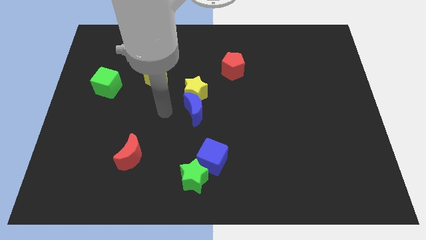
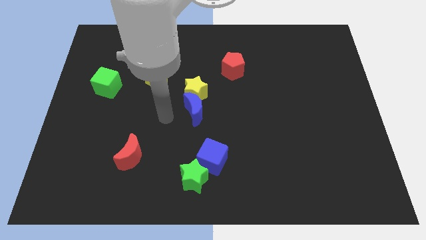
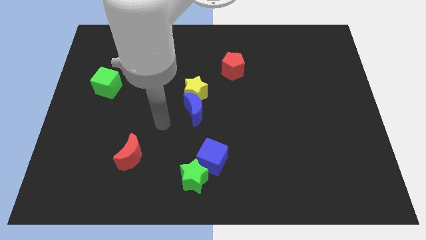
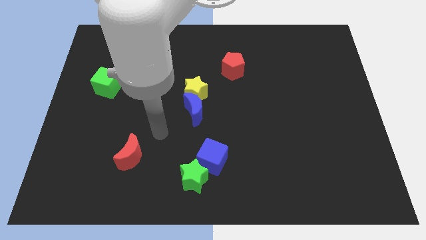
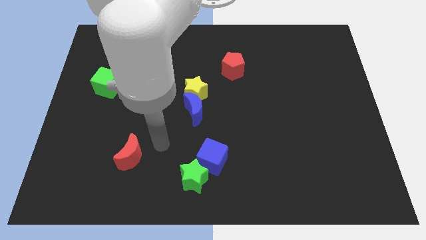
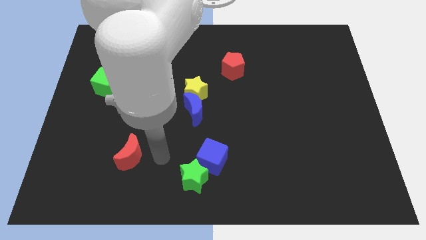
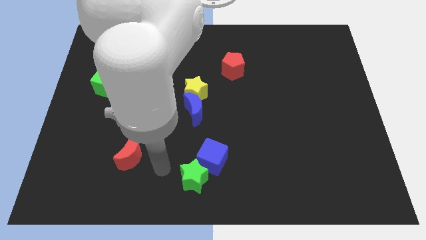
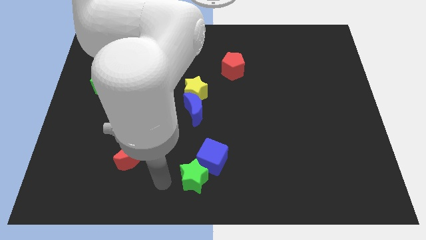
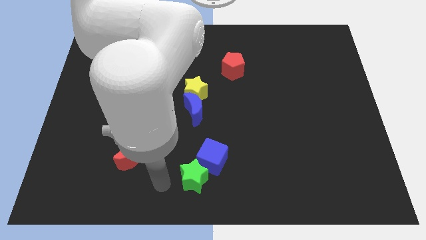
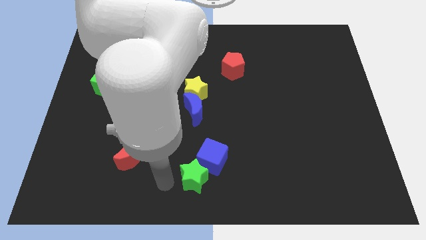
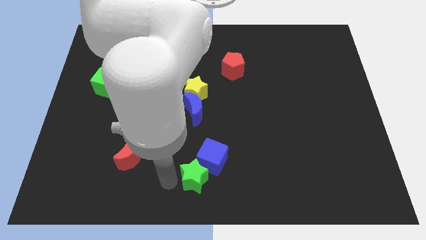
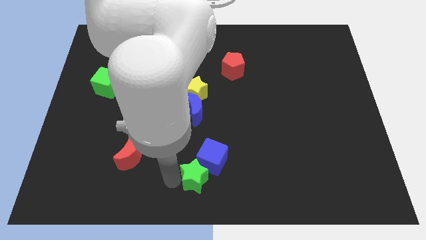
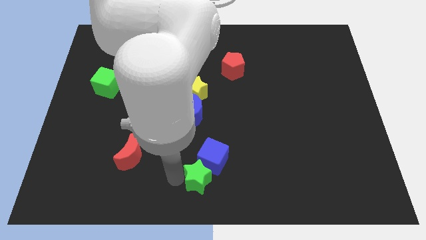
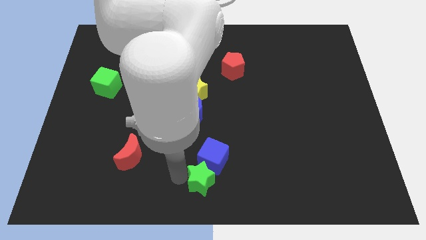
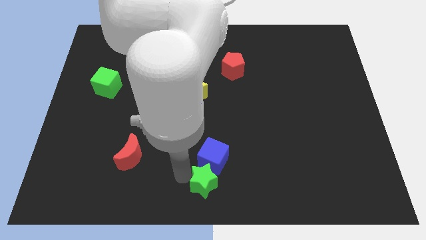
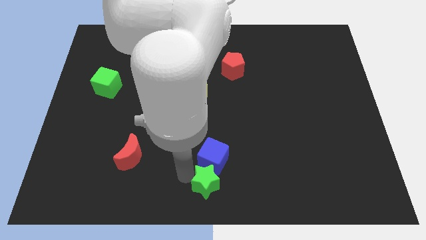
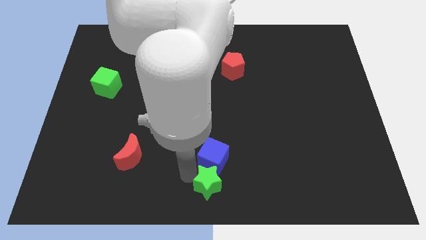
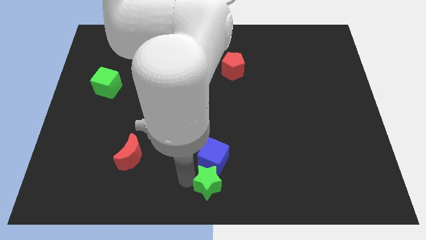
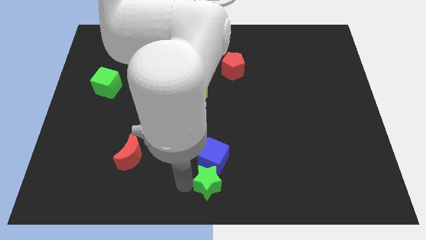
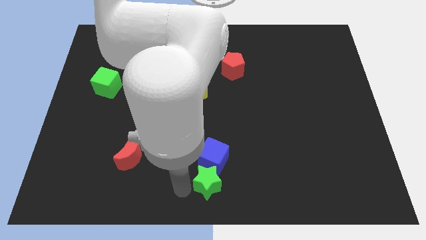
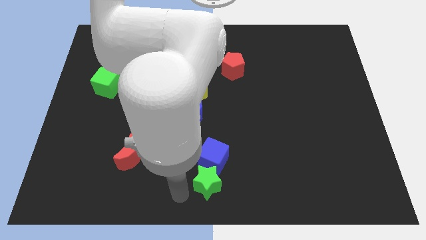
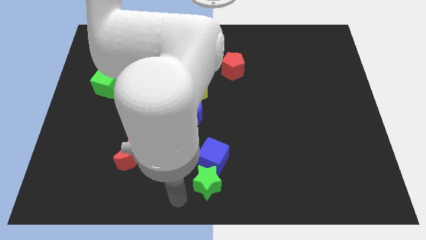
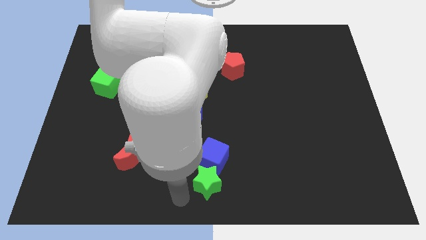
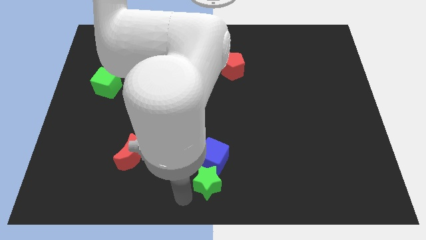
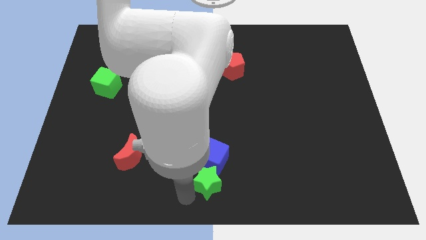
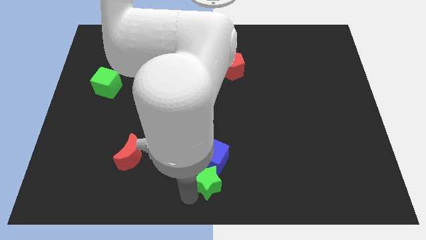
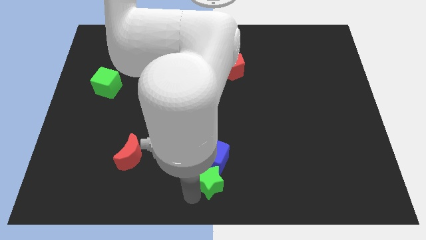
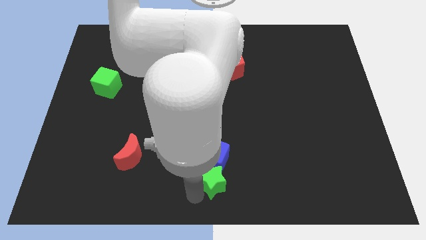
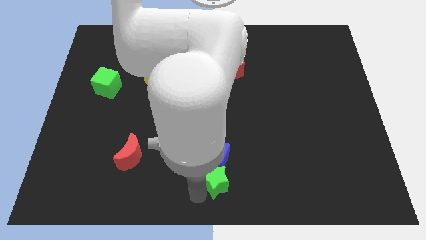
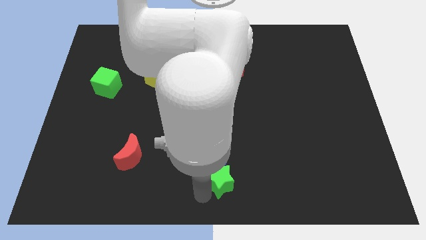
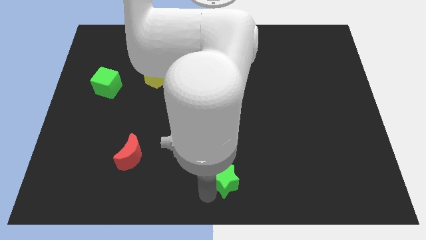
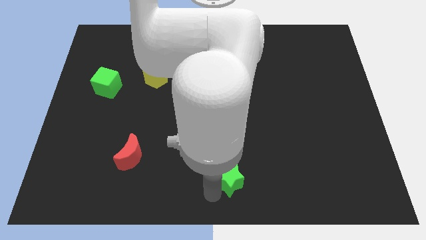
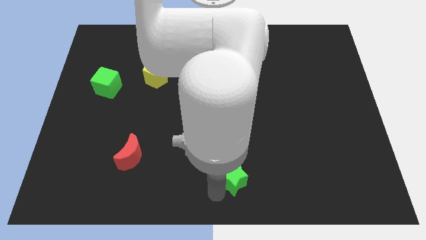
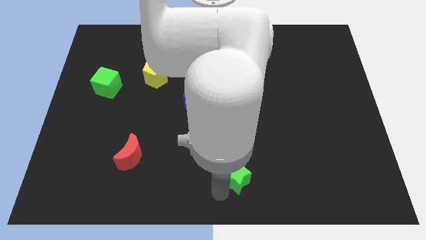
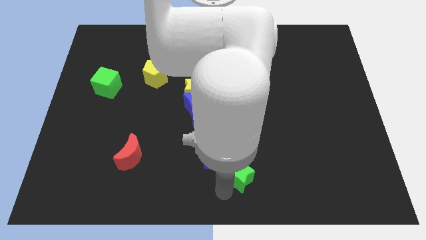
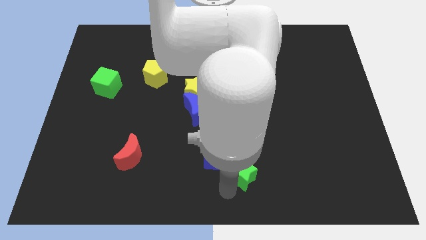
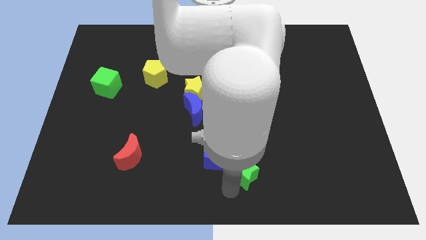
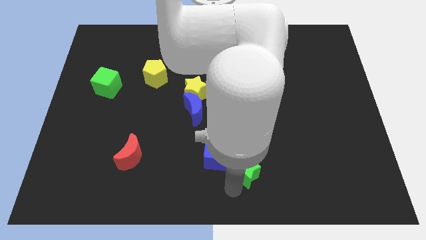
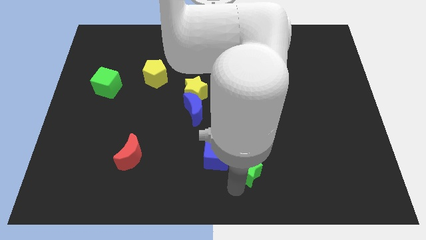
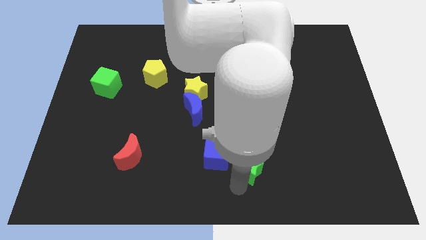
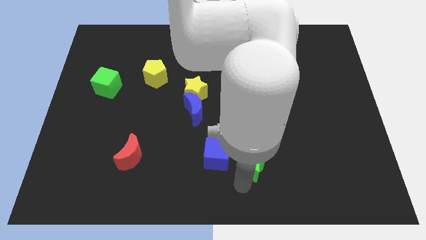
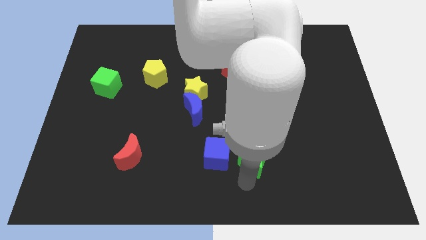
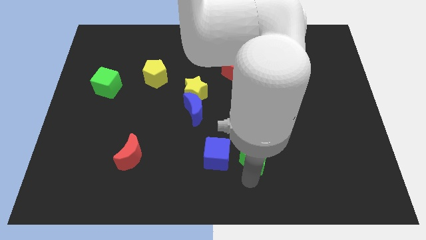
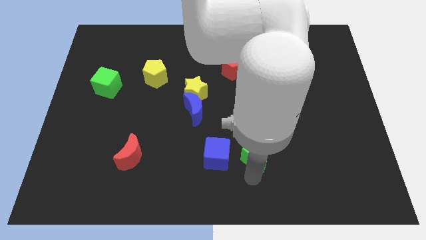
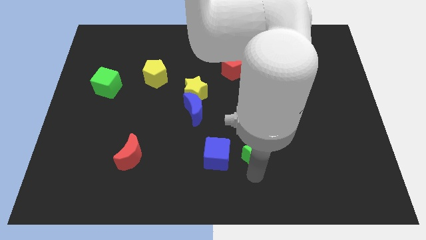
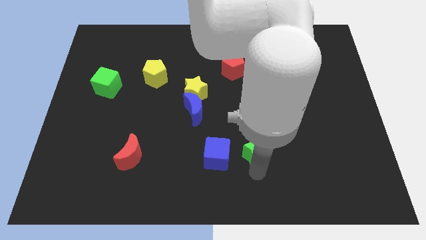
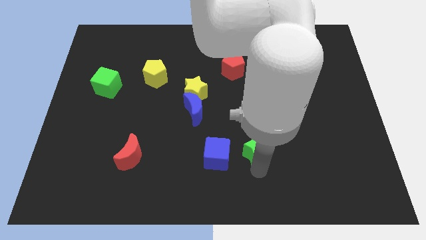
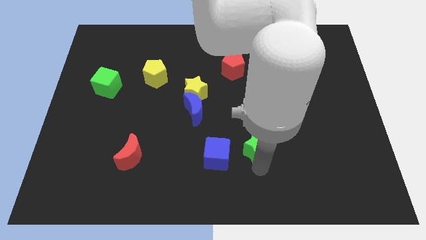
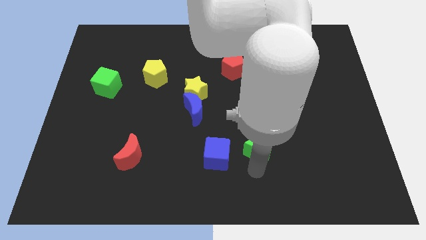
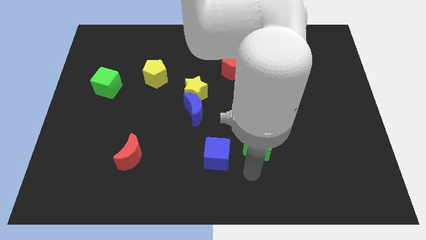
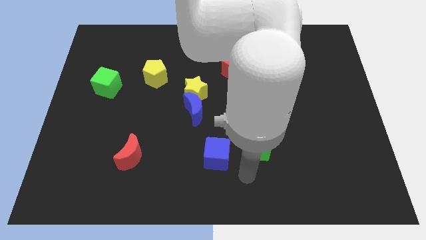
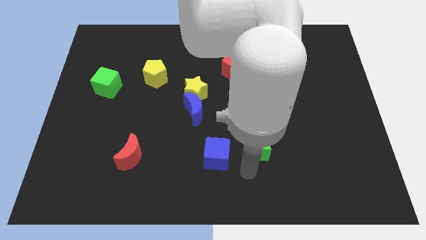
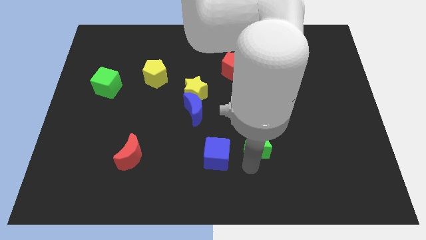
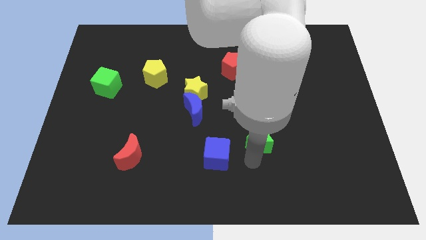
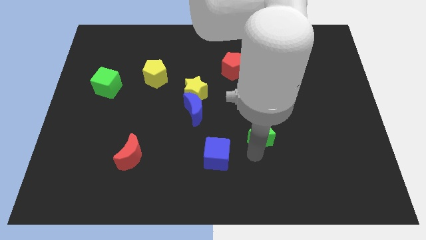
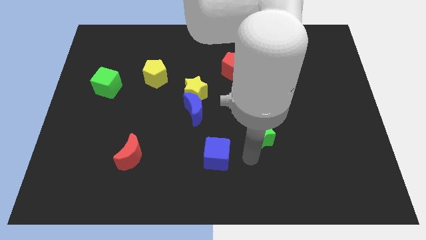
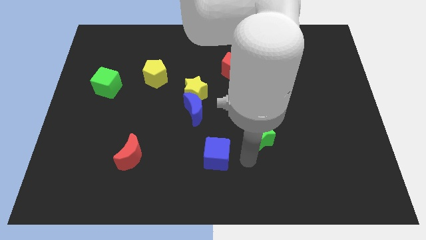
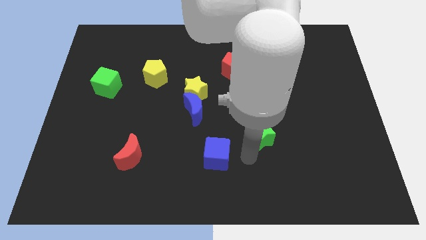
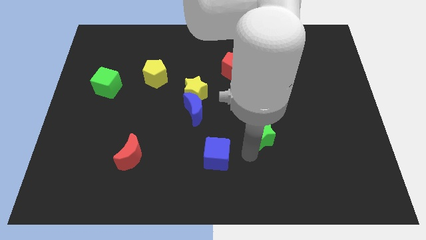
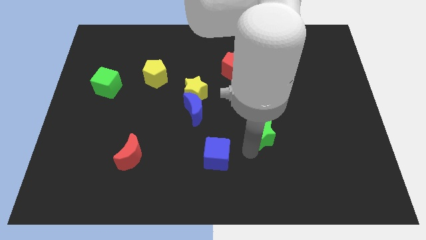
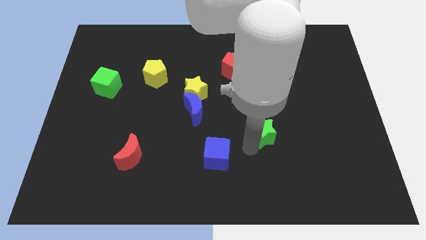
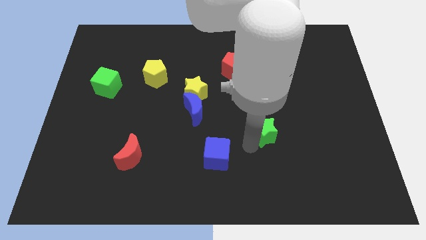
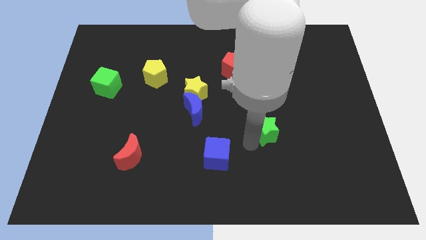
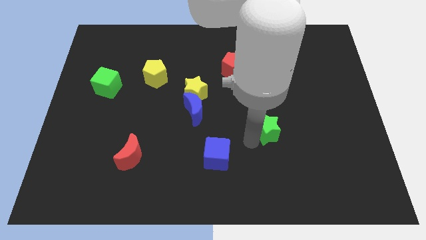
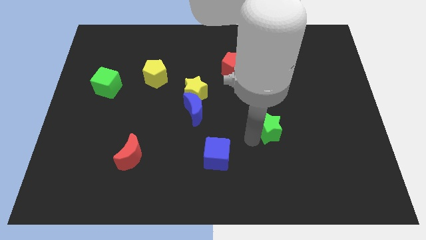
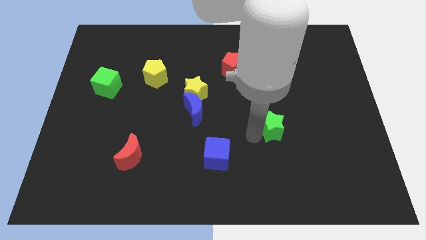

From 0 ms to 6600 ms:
slide the green star up and then right

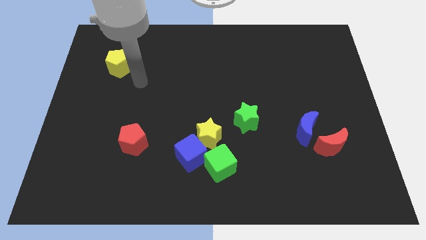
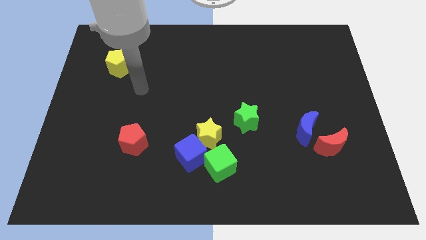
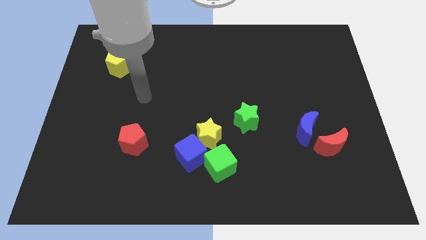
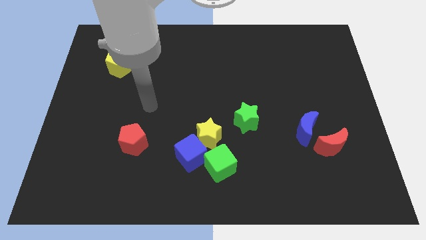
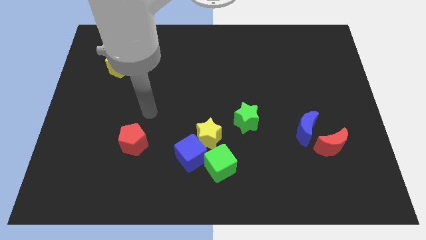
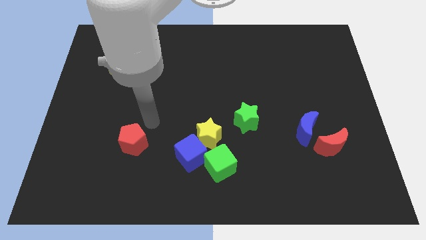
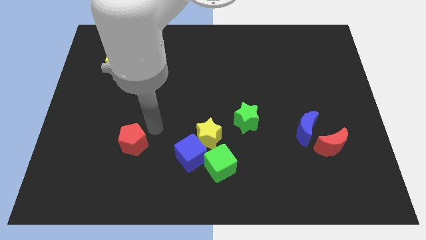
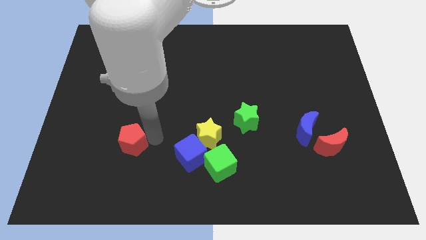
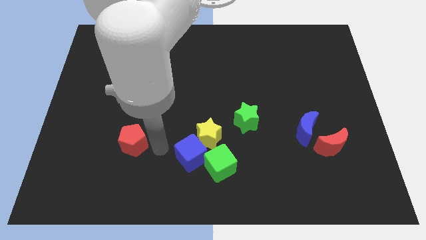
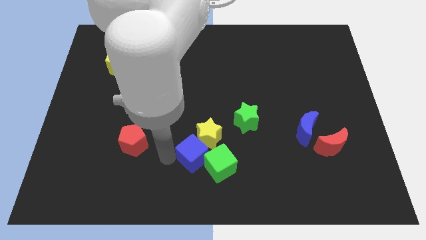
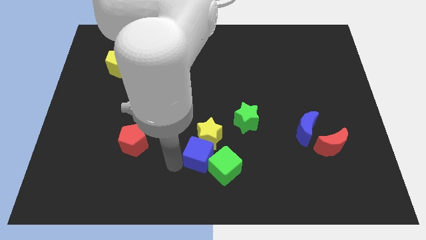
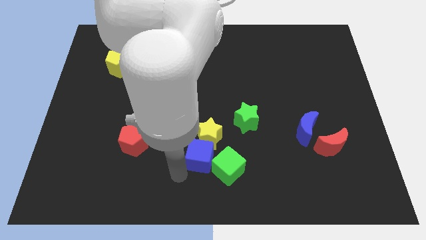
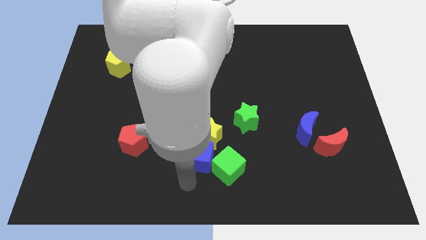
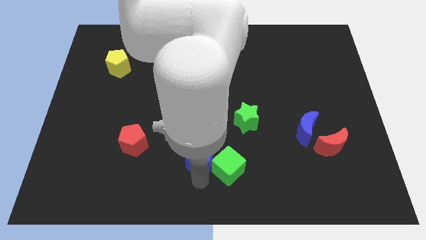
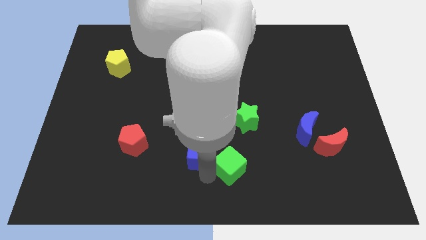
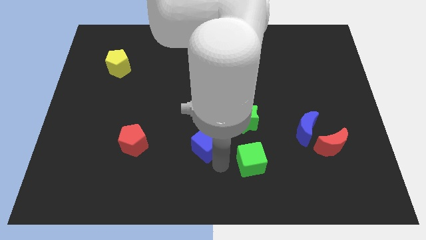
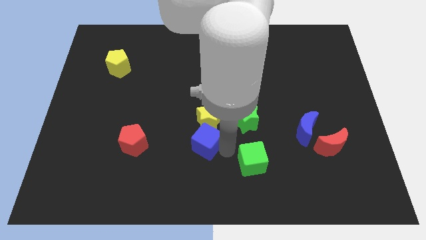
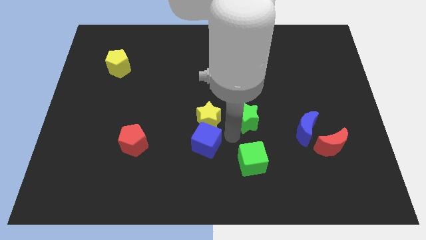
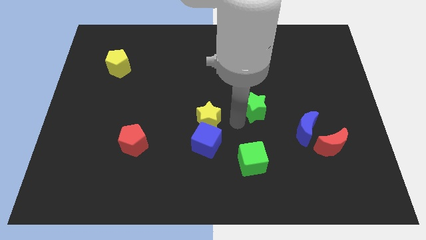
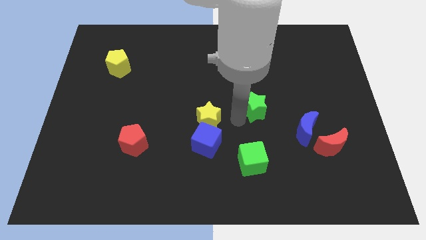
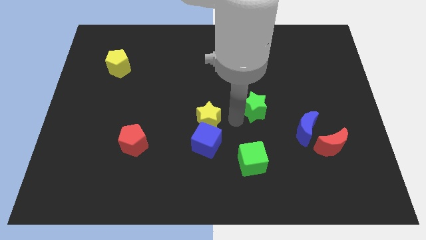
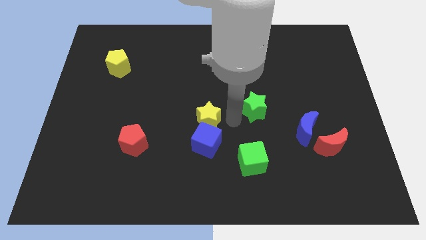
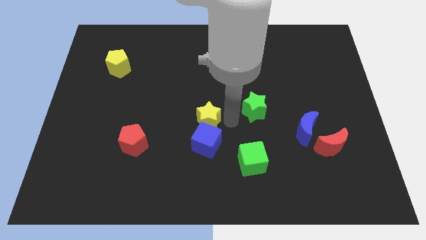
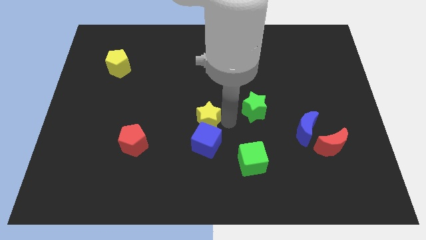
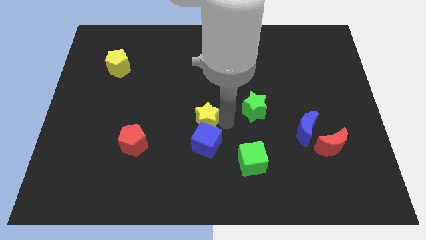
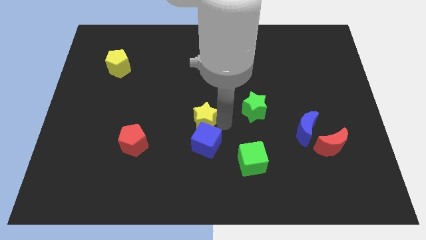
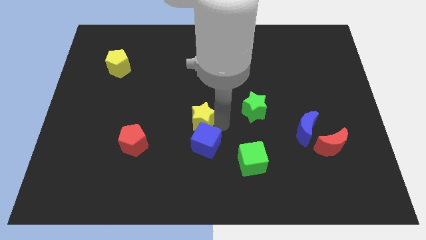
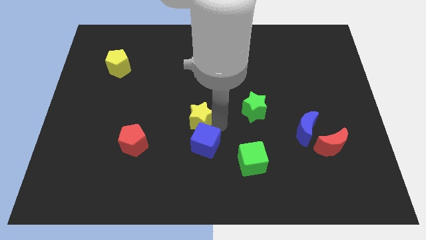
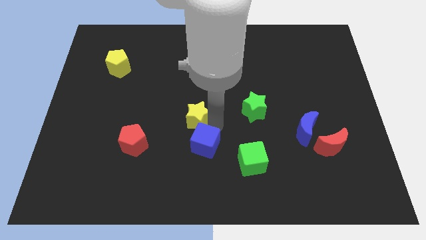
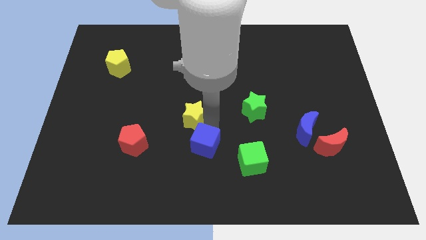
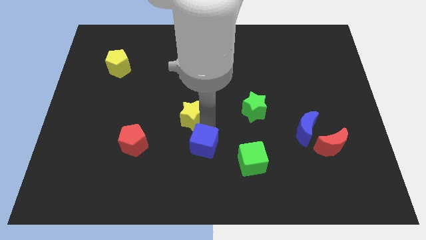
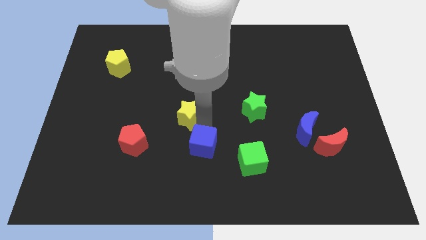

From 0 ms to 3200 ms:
push the yellow star somewhat upwards and left
